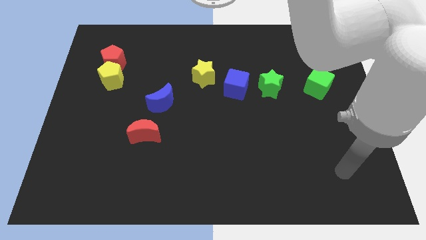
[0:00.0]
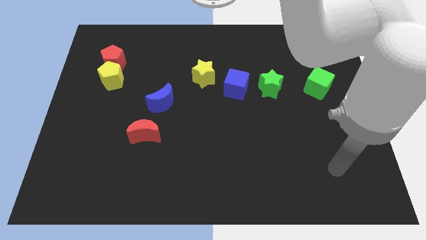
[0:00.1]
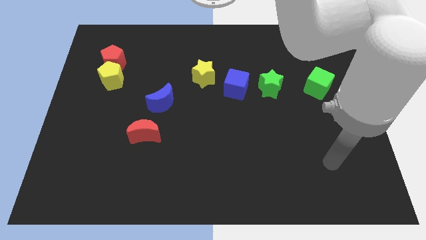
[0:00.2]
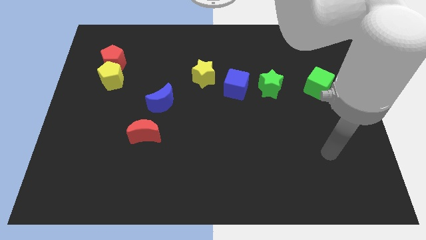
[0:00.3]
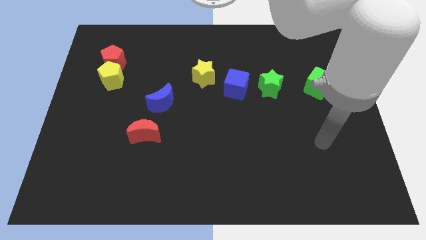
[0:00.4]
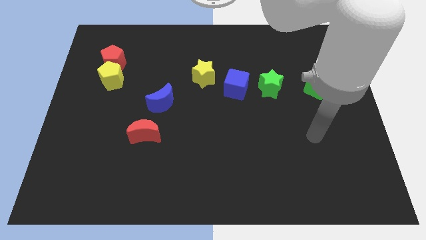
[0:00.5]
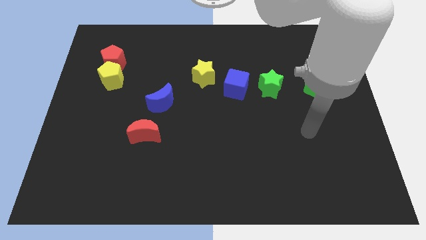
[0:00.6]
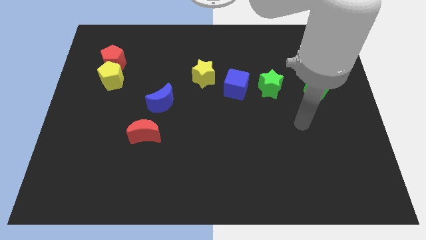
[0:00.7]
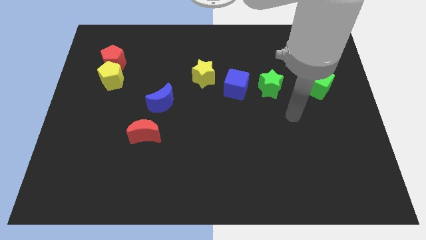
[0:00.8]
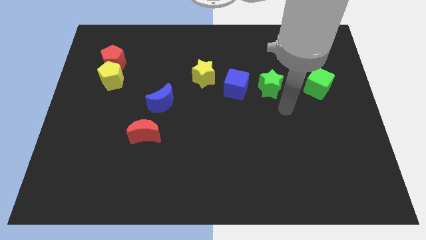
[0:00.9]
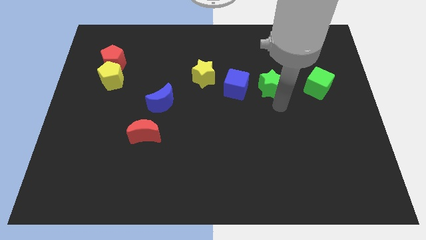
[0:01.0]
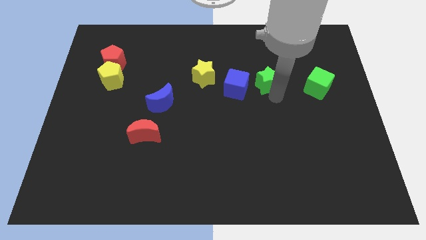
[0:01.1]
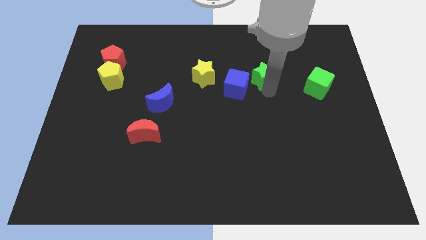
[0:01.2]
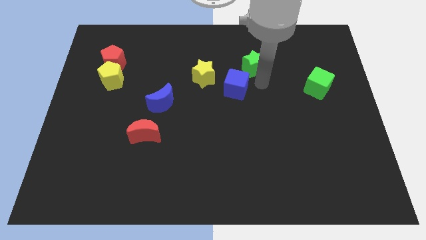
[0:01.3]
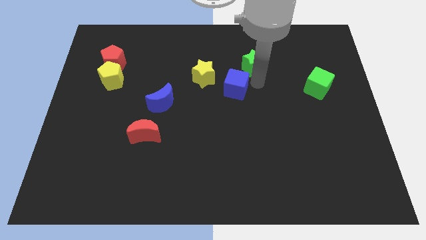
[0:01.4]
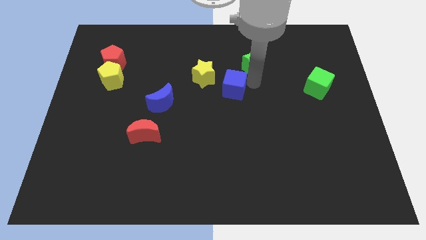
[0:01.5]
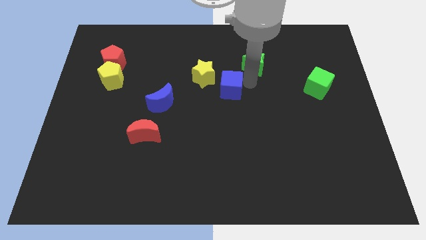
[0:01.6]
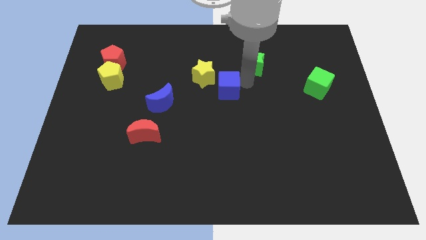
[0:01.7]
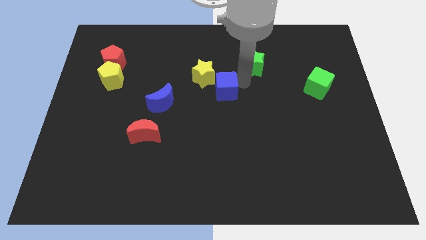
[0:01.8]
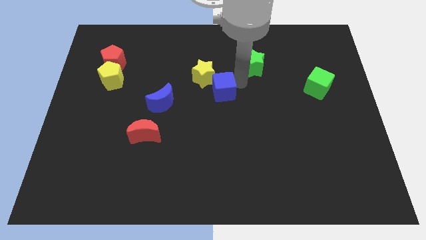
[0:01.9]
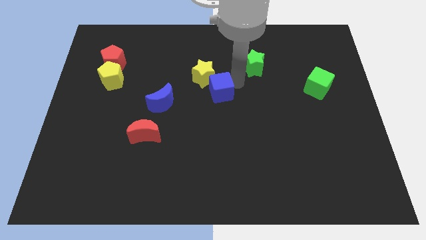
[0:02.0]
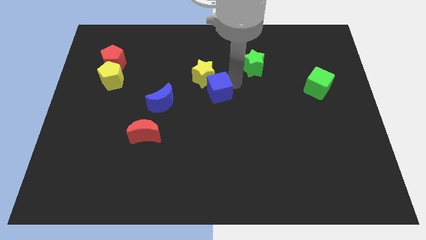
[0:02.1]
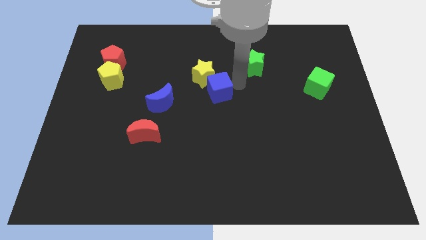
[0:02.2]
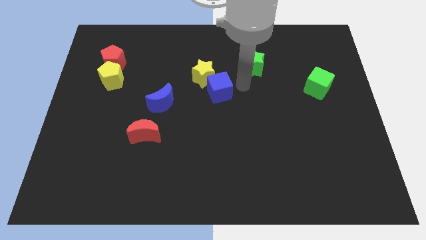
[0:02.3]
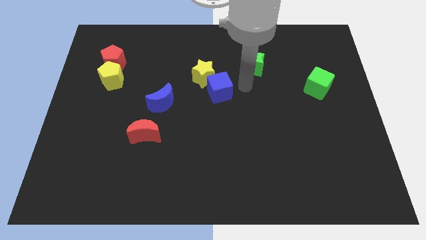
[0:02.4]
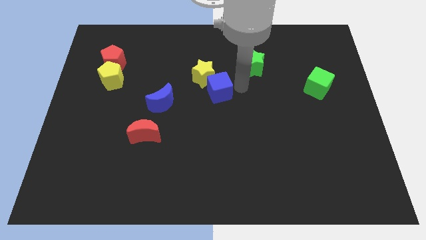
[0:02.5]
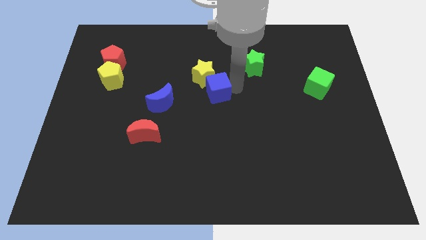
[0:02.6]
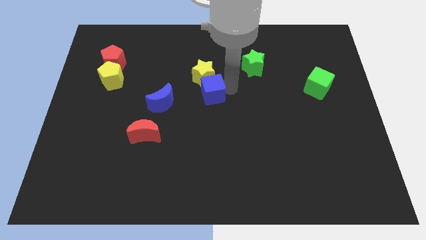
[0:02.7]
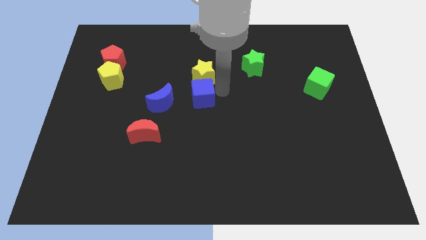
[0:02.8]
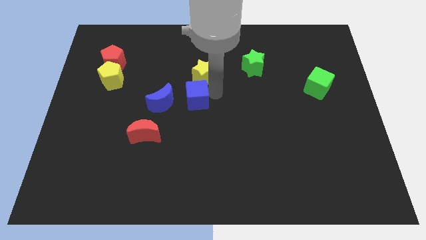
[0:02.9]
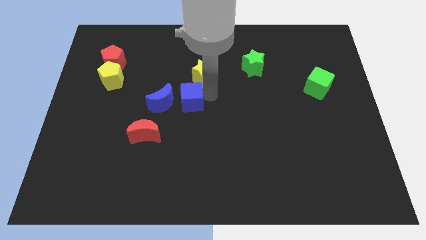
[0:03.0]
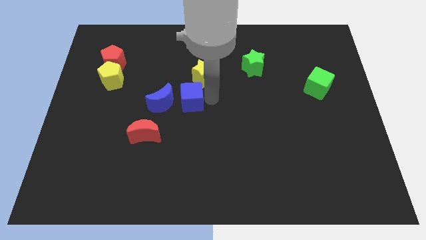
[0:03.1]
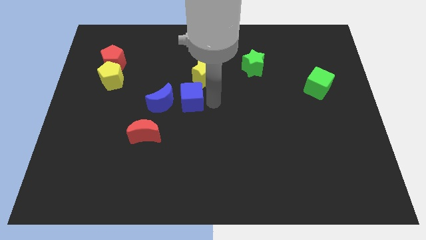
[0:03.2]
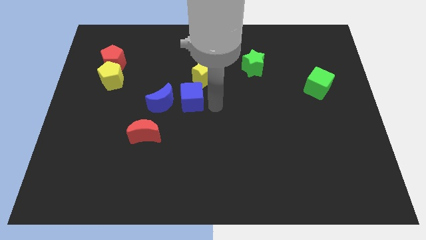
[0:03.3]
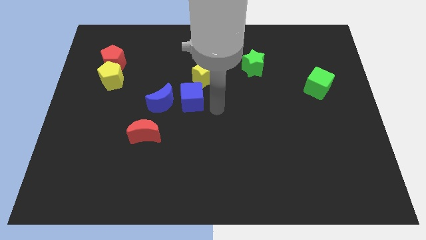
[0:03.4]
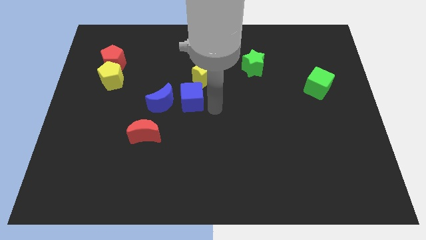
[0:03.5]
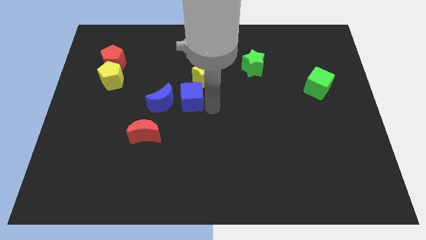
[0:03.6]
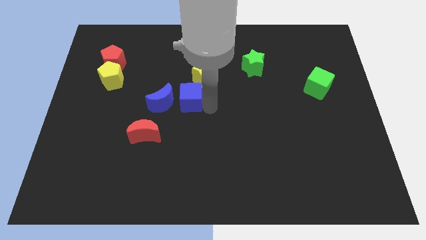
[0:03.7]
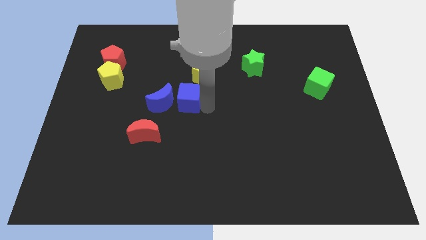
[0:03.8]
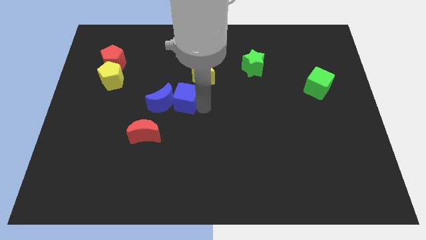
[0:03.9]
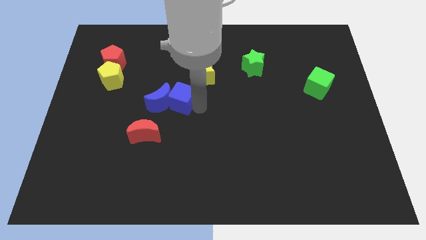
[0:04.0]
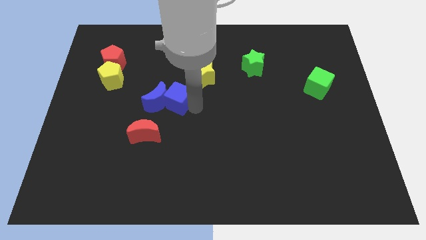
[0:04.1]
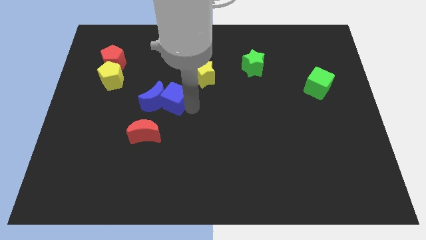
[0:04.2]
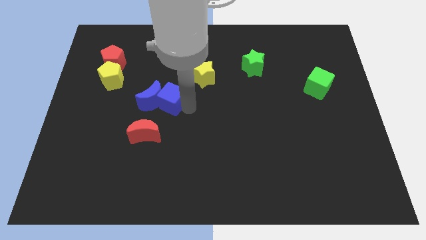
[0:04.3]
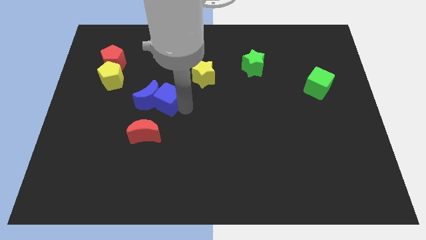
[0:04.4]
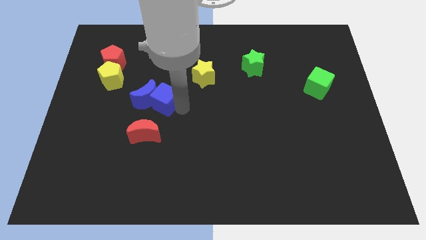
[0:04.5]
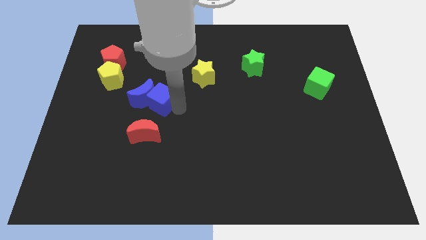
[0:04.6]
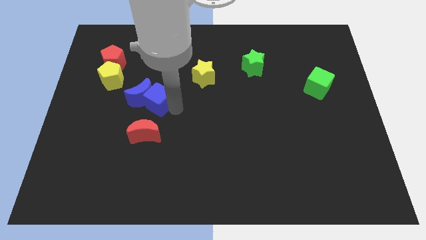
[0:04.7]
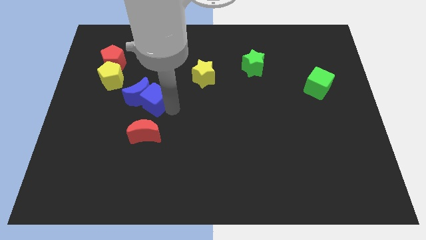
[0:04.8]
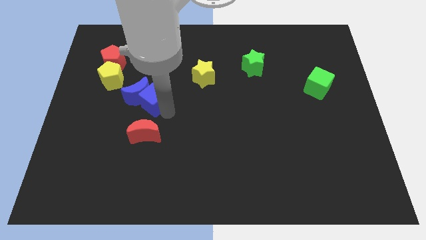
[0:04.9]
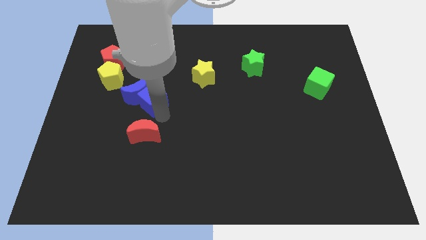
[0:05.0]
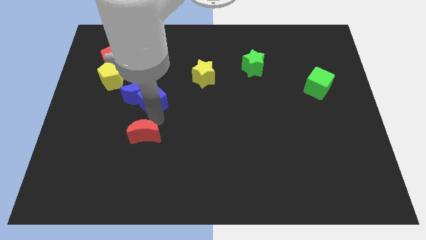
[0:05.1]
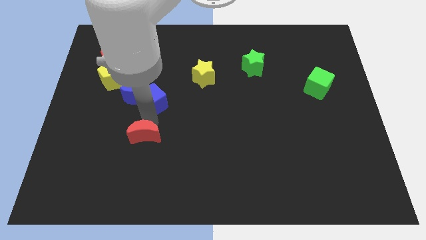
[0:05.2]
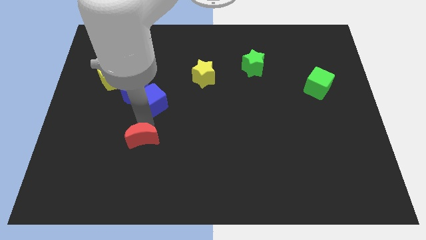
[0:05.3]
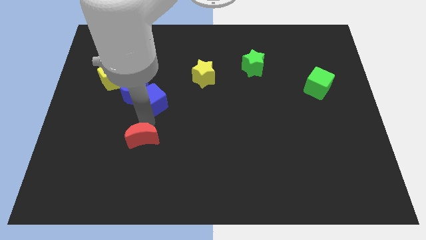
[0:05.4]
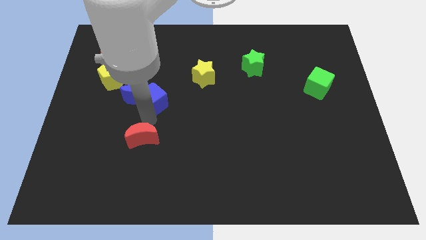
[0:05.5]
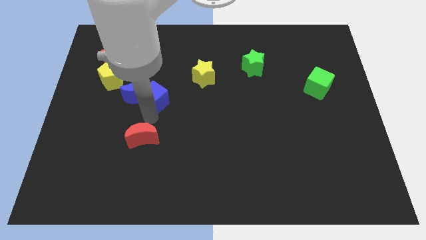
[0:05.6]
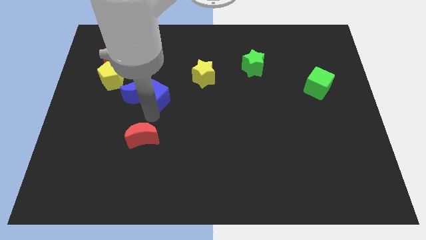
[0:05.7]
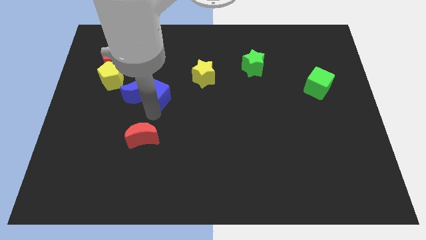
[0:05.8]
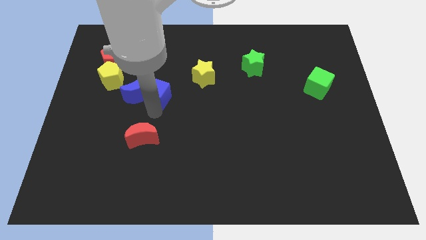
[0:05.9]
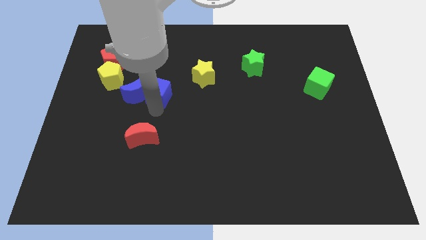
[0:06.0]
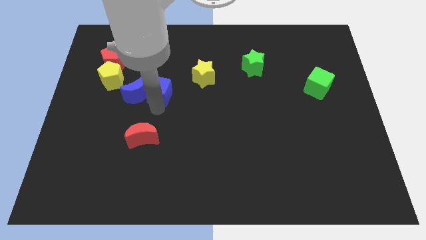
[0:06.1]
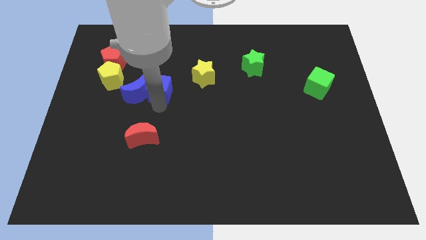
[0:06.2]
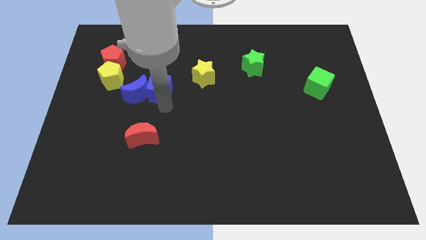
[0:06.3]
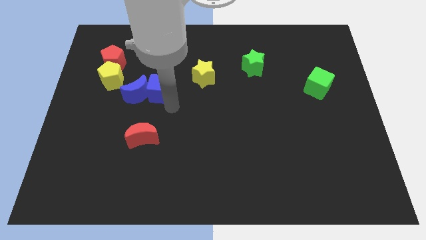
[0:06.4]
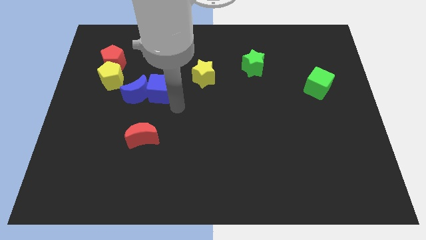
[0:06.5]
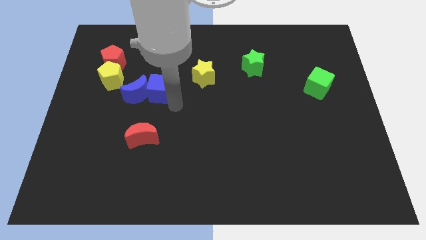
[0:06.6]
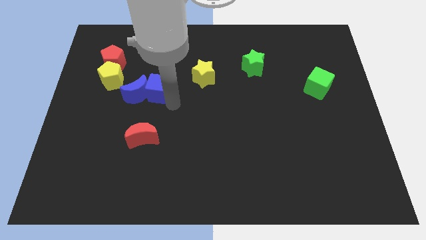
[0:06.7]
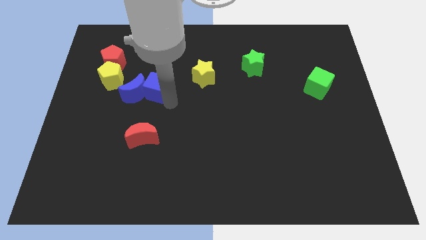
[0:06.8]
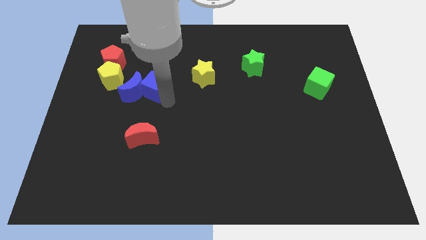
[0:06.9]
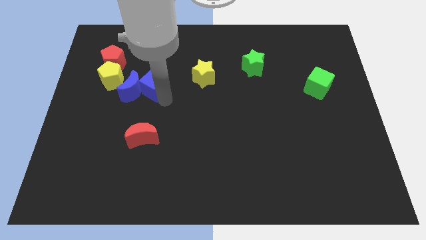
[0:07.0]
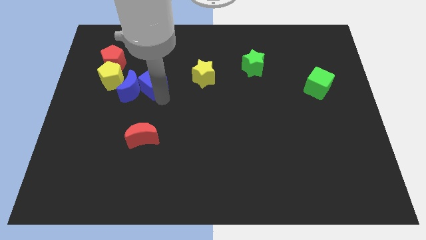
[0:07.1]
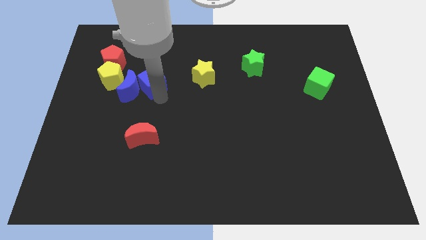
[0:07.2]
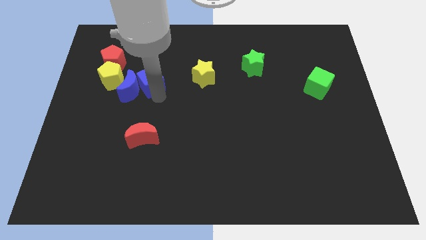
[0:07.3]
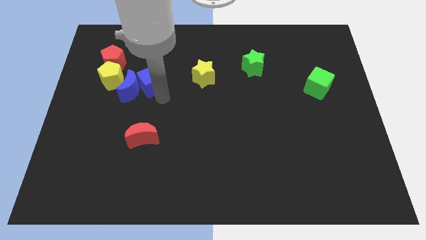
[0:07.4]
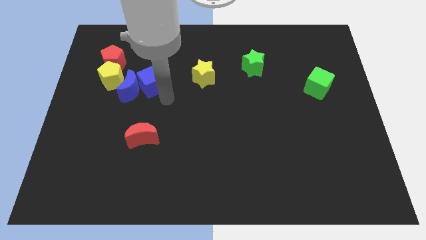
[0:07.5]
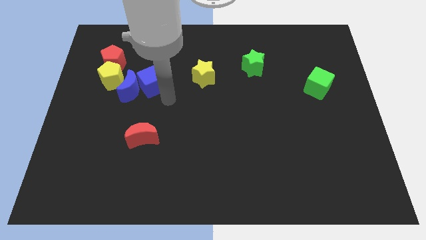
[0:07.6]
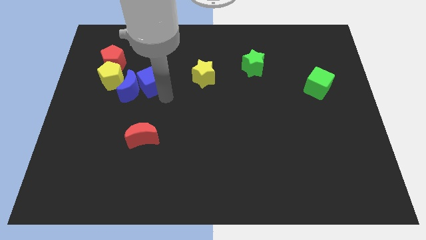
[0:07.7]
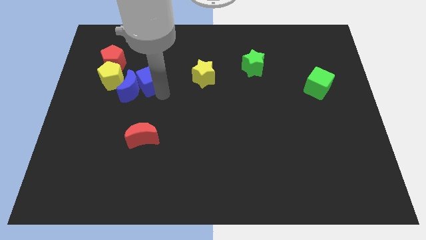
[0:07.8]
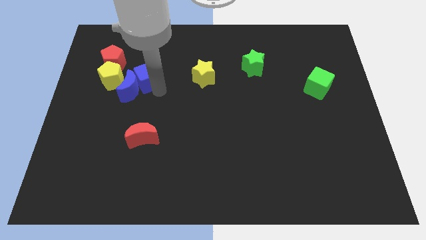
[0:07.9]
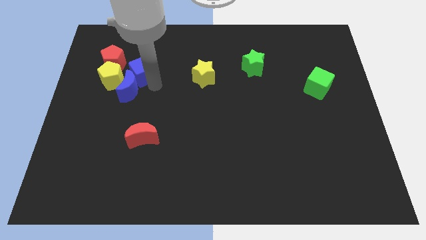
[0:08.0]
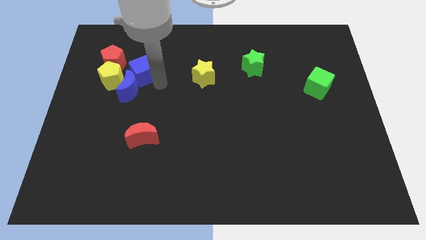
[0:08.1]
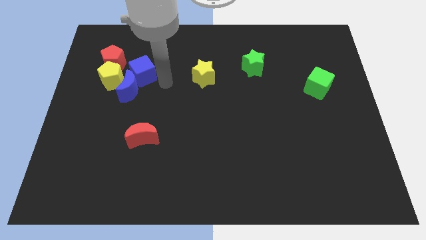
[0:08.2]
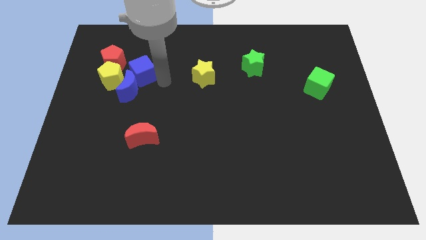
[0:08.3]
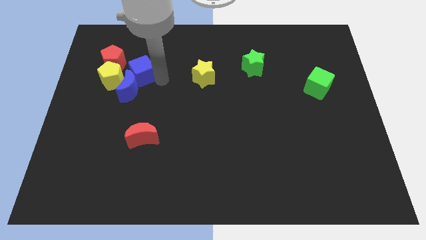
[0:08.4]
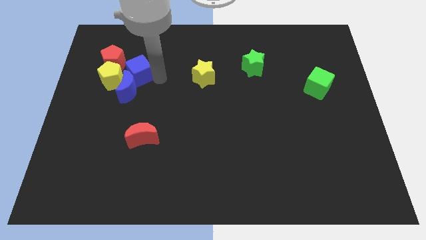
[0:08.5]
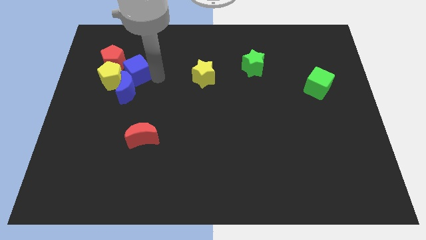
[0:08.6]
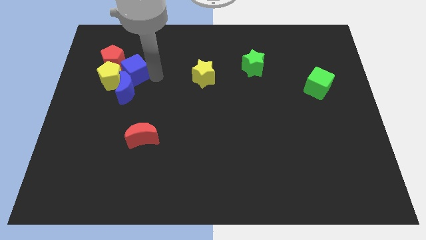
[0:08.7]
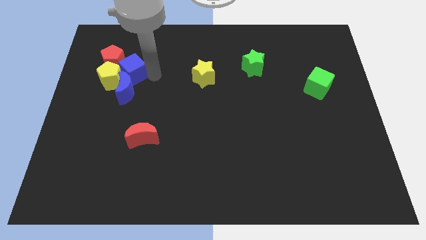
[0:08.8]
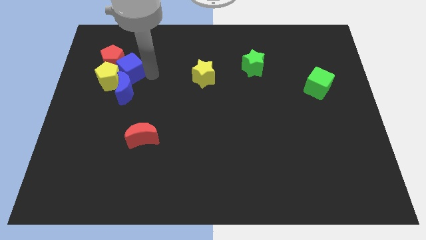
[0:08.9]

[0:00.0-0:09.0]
slide the blue cube close to the red pentagon
